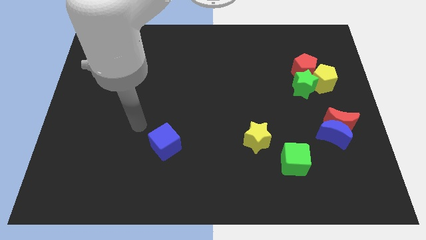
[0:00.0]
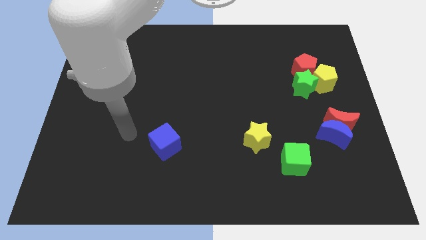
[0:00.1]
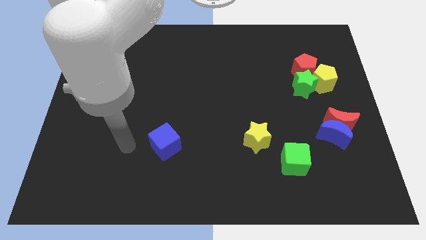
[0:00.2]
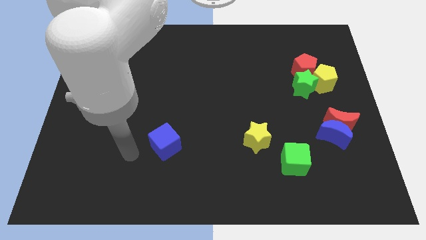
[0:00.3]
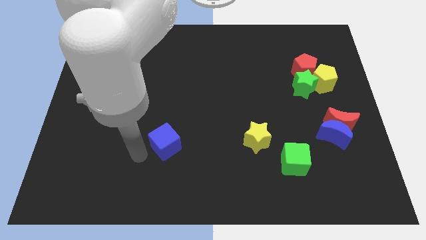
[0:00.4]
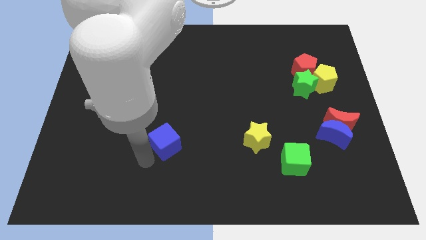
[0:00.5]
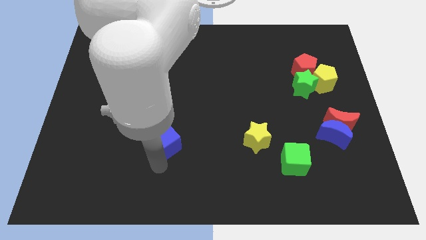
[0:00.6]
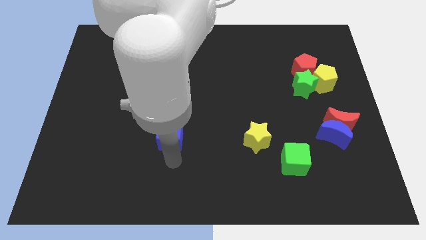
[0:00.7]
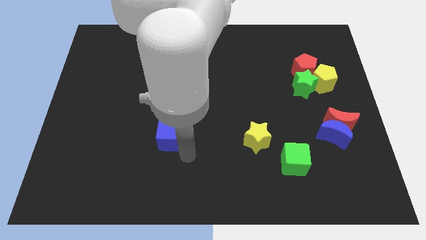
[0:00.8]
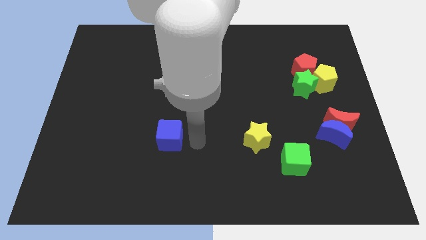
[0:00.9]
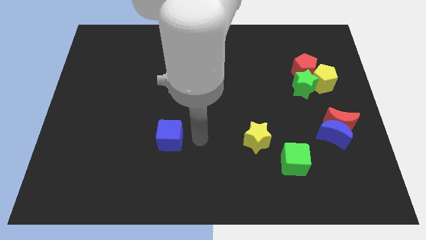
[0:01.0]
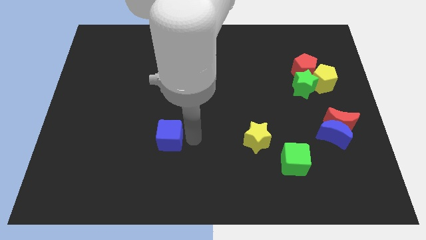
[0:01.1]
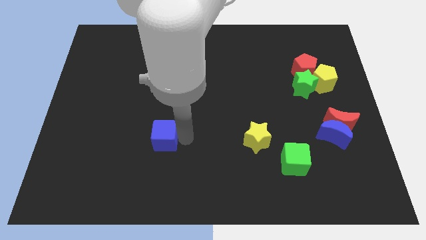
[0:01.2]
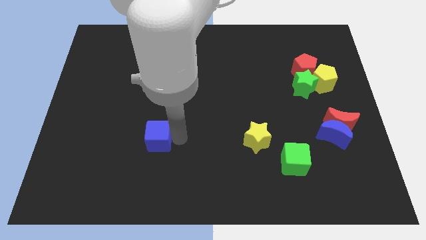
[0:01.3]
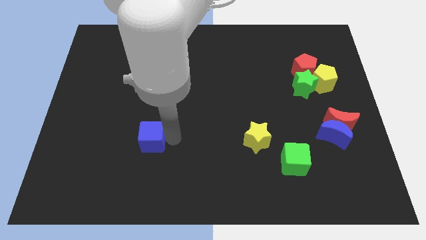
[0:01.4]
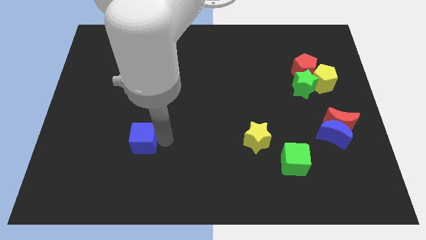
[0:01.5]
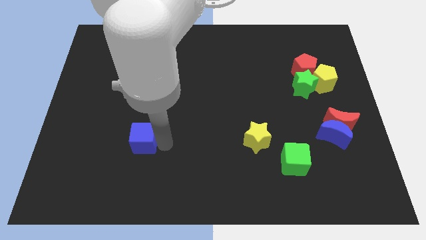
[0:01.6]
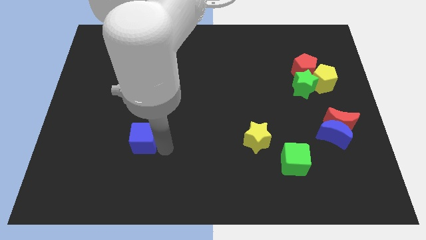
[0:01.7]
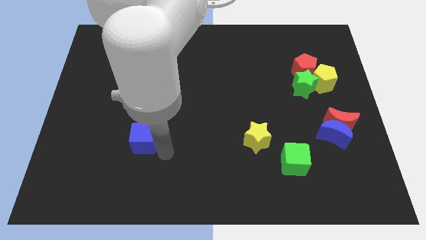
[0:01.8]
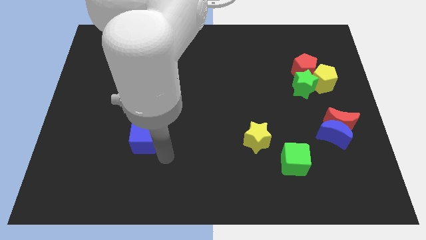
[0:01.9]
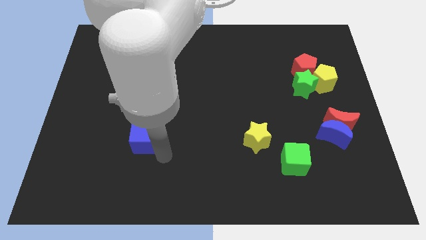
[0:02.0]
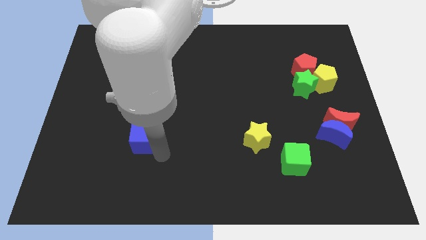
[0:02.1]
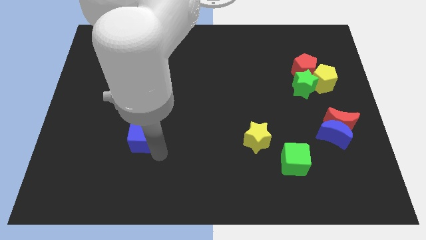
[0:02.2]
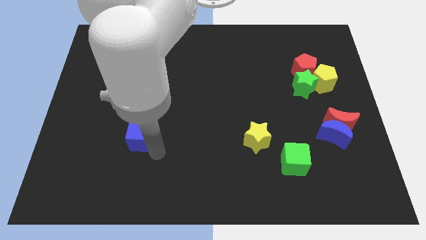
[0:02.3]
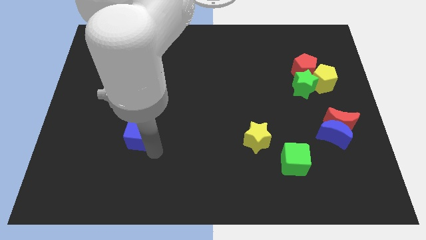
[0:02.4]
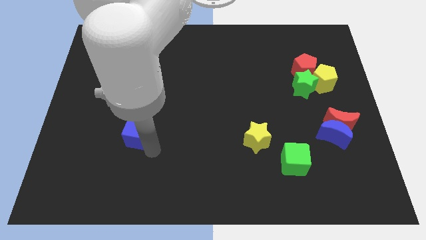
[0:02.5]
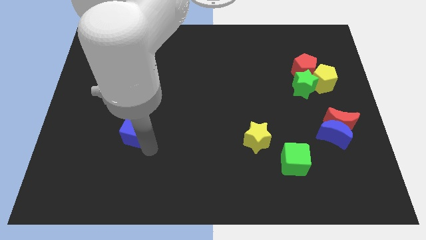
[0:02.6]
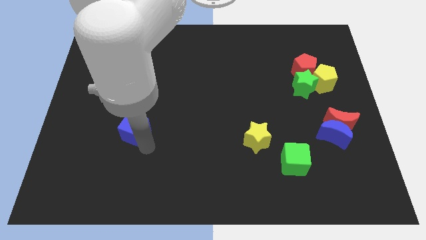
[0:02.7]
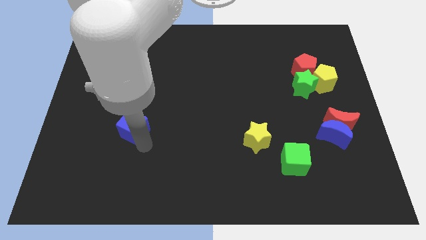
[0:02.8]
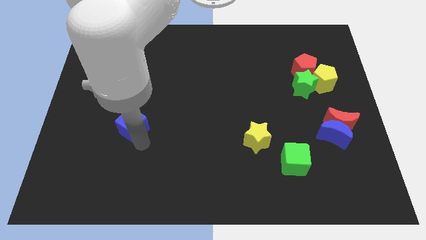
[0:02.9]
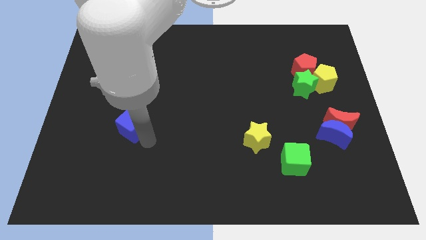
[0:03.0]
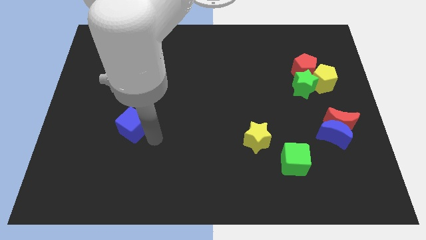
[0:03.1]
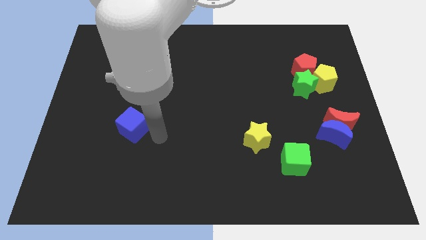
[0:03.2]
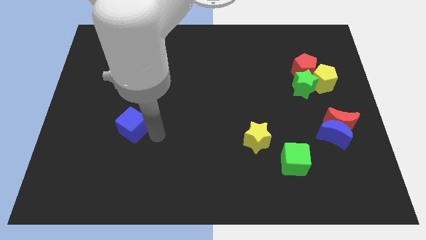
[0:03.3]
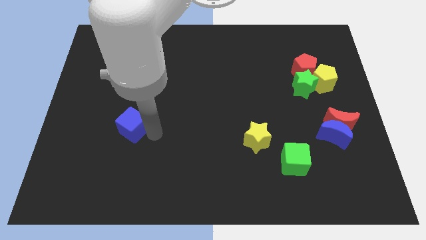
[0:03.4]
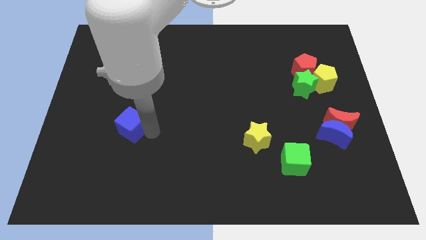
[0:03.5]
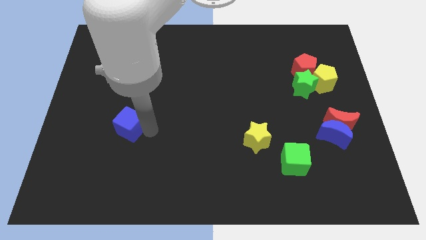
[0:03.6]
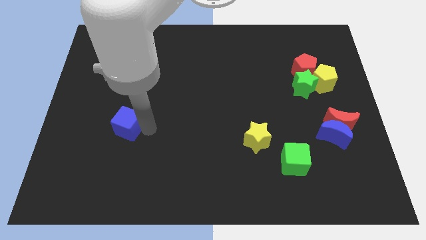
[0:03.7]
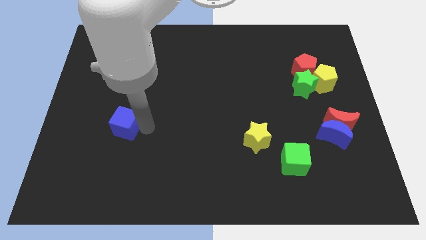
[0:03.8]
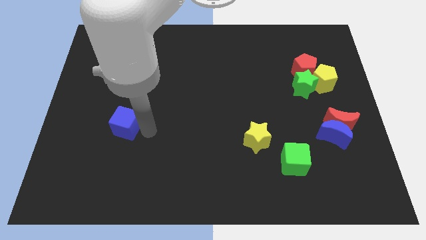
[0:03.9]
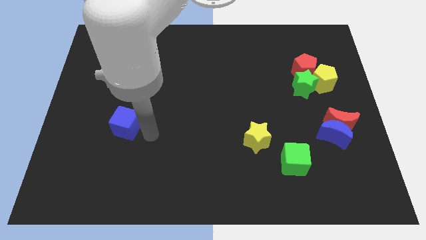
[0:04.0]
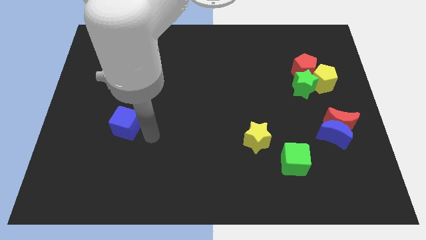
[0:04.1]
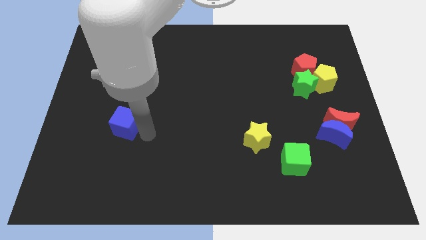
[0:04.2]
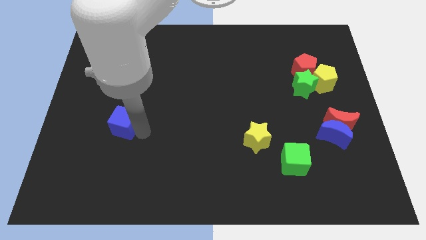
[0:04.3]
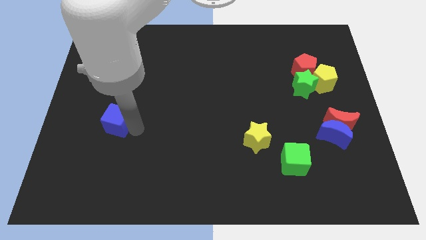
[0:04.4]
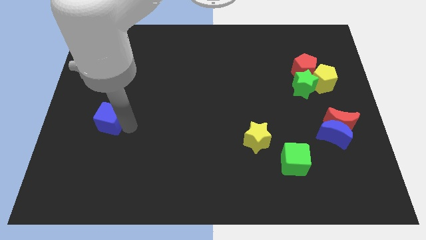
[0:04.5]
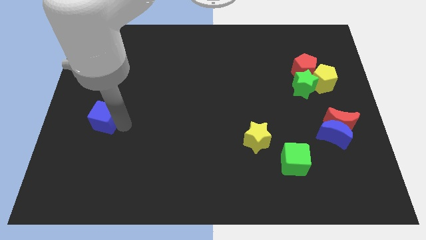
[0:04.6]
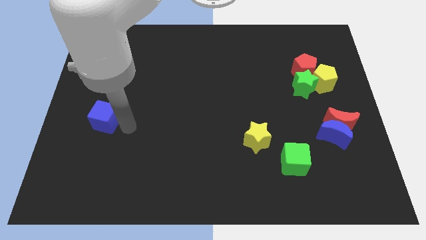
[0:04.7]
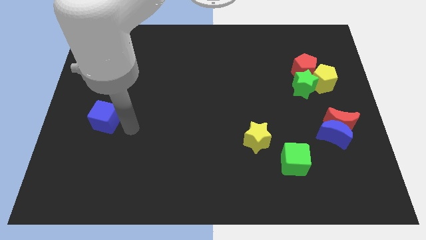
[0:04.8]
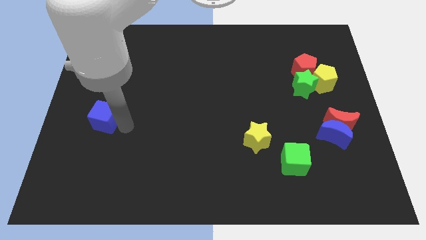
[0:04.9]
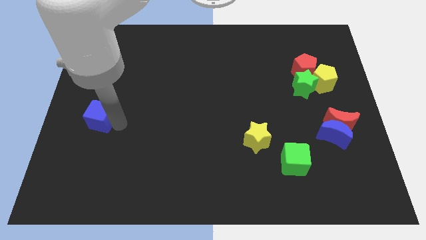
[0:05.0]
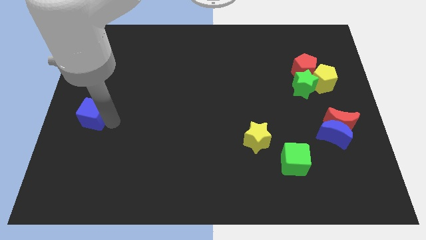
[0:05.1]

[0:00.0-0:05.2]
slide the blue cube to the left side

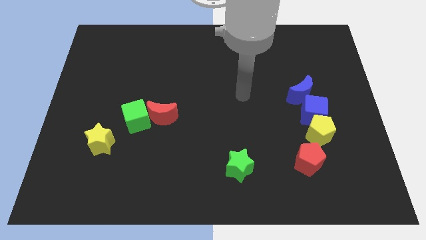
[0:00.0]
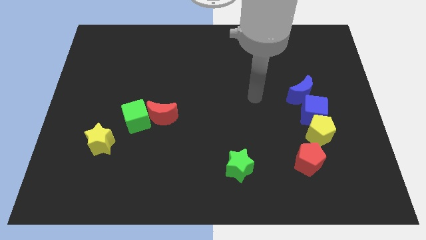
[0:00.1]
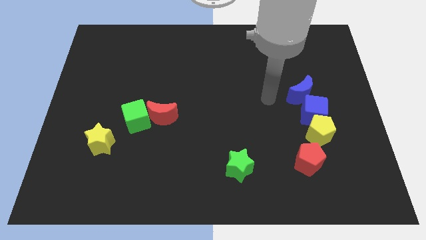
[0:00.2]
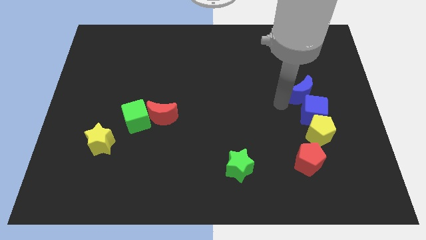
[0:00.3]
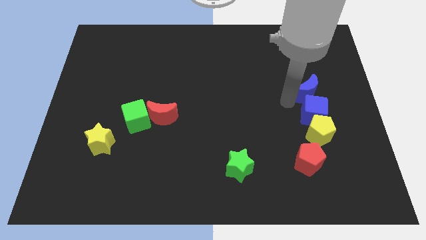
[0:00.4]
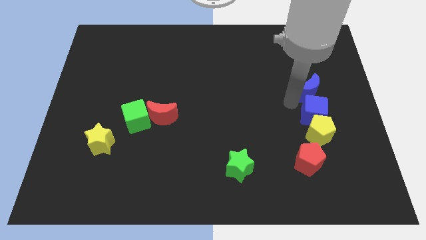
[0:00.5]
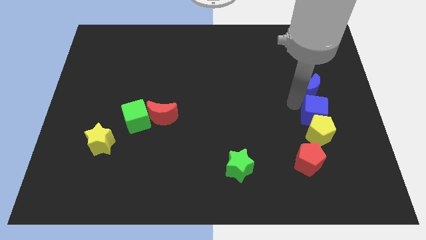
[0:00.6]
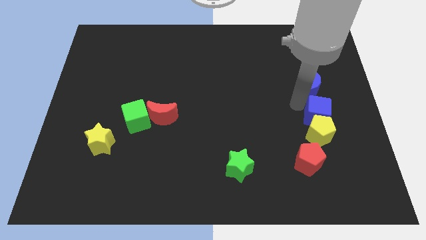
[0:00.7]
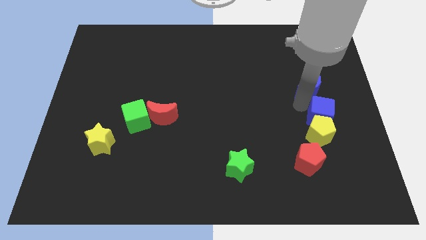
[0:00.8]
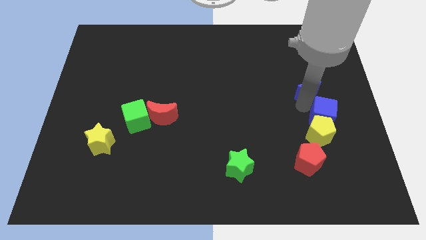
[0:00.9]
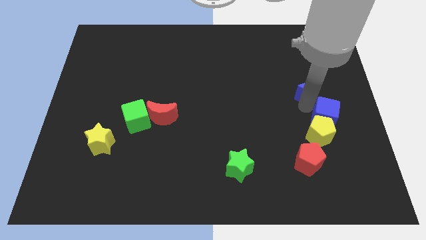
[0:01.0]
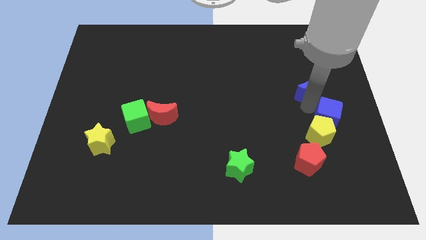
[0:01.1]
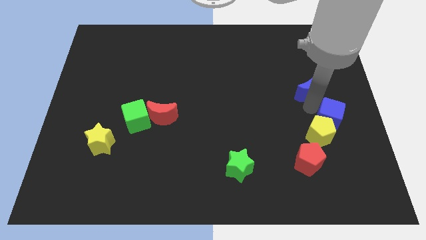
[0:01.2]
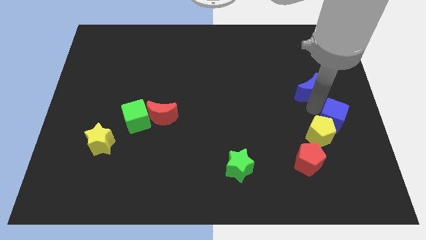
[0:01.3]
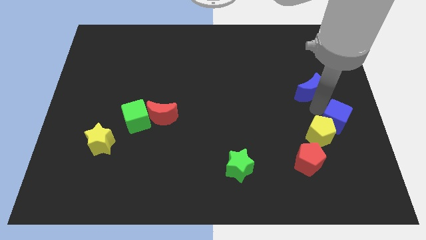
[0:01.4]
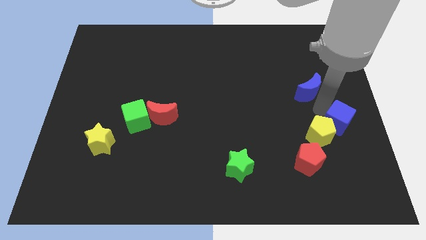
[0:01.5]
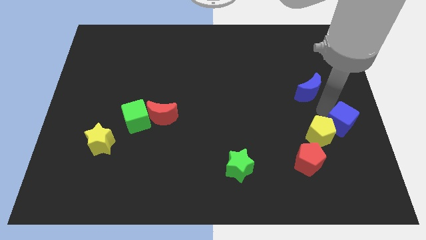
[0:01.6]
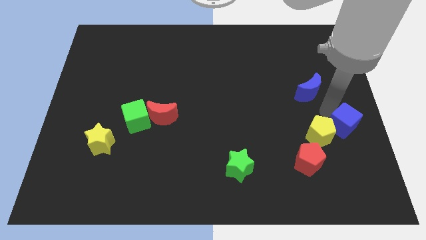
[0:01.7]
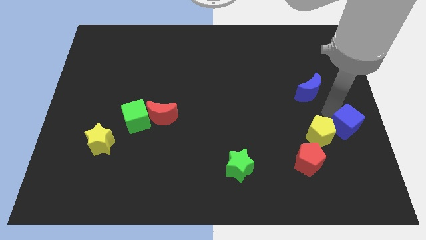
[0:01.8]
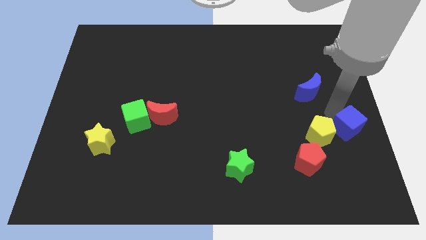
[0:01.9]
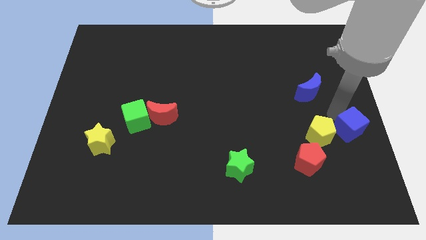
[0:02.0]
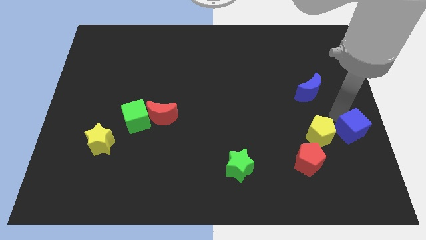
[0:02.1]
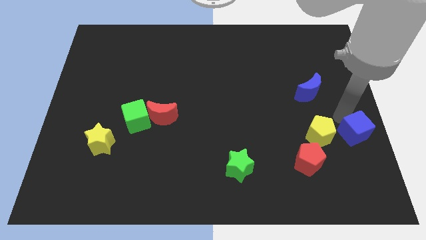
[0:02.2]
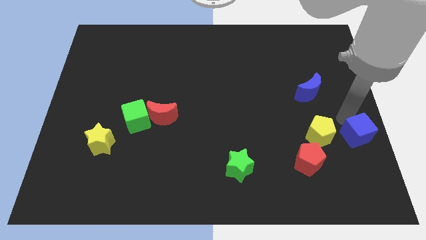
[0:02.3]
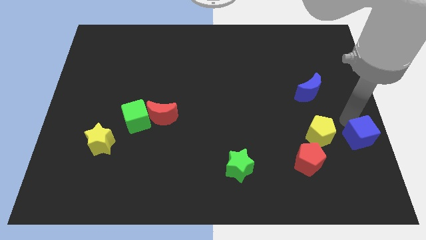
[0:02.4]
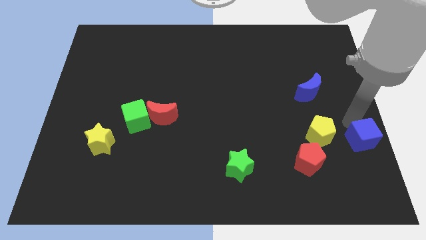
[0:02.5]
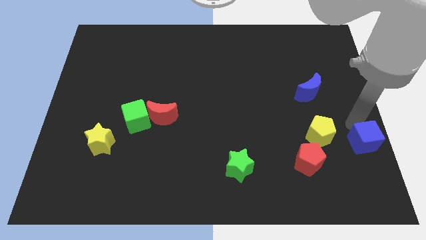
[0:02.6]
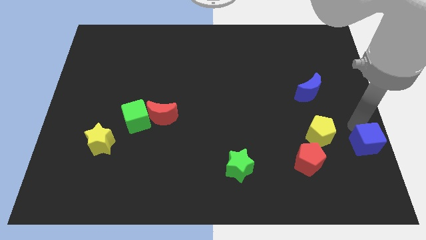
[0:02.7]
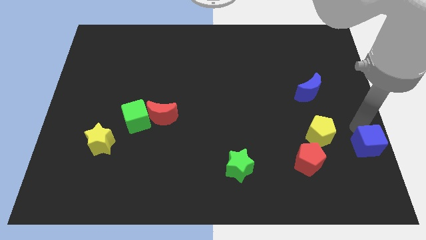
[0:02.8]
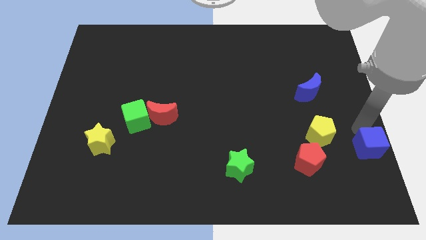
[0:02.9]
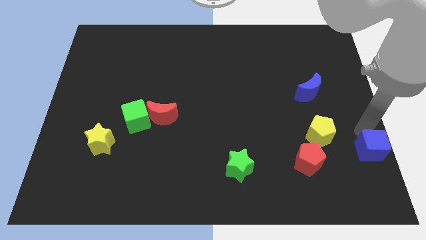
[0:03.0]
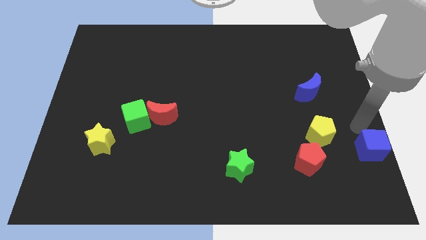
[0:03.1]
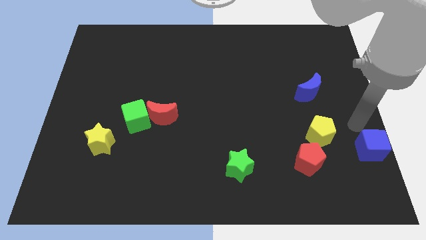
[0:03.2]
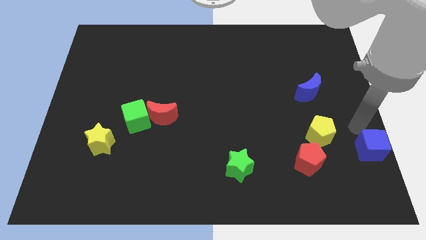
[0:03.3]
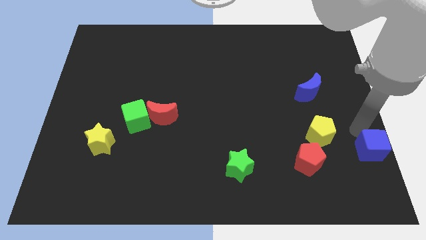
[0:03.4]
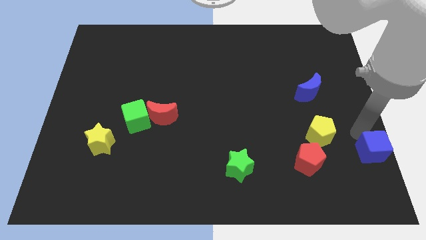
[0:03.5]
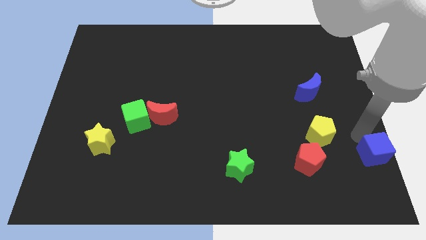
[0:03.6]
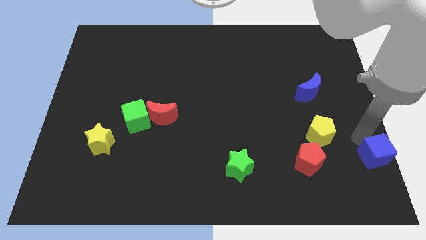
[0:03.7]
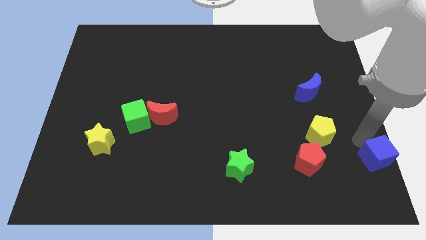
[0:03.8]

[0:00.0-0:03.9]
put the blue cube to the bottom right
